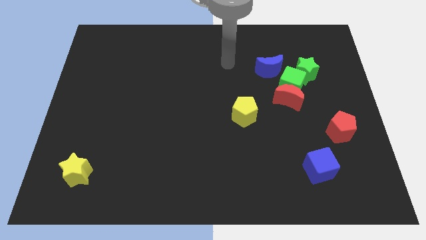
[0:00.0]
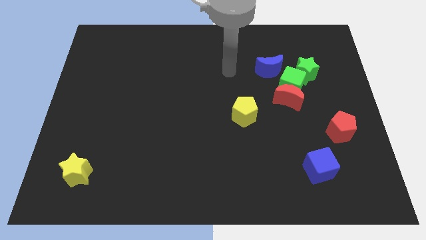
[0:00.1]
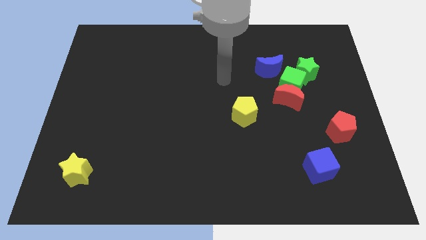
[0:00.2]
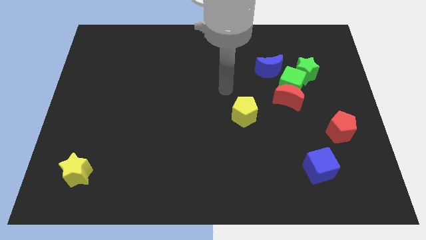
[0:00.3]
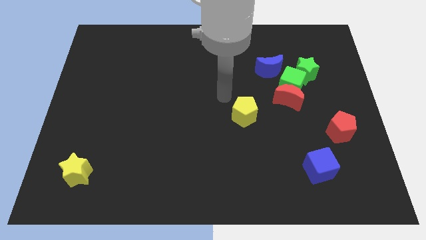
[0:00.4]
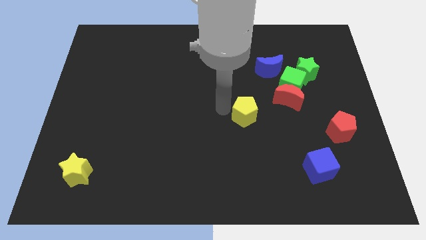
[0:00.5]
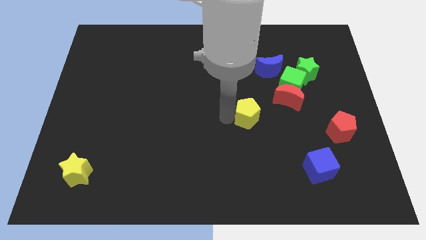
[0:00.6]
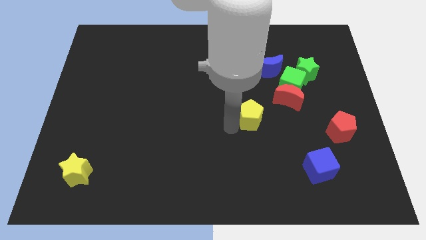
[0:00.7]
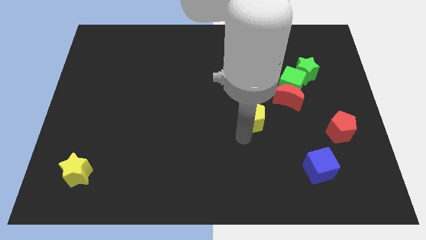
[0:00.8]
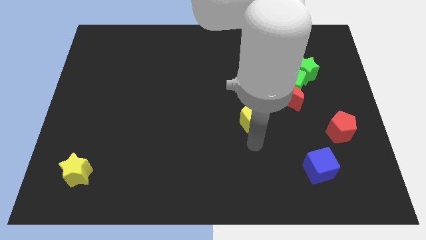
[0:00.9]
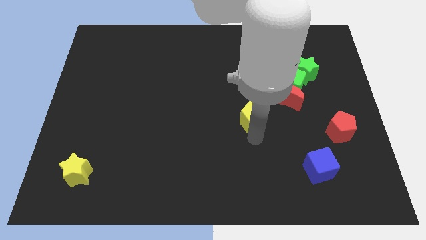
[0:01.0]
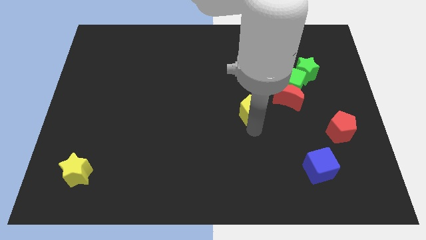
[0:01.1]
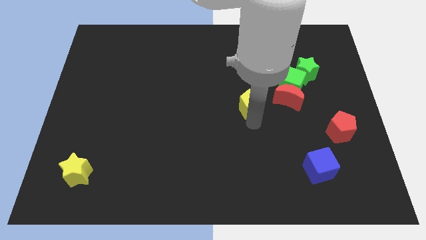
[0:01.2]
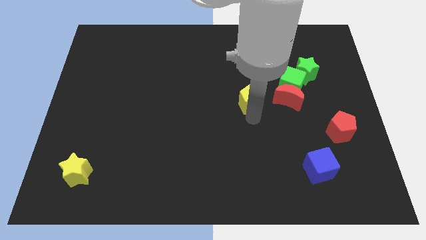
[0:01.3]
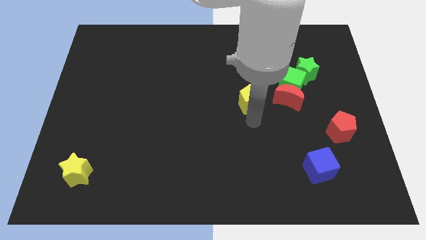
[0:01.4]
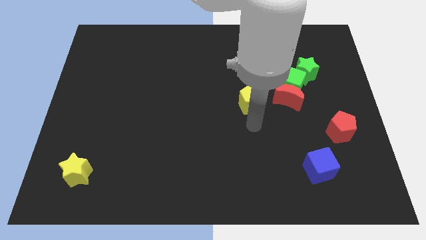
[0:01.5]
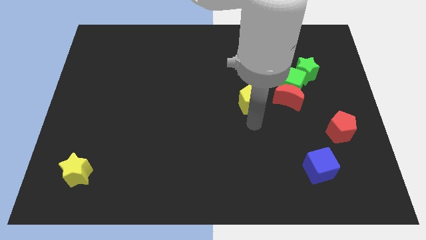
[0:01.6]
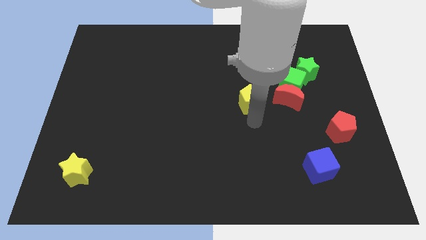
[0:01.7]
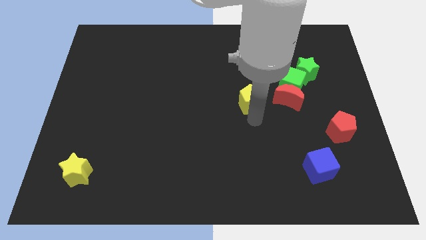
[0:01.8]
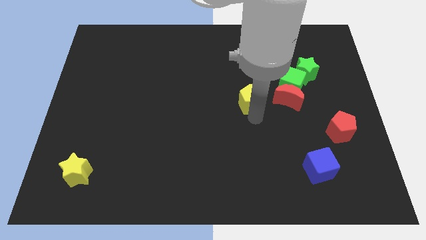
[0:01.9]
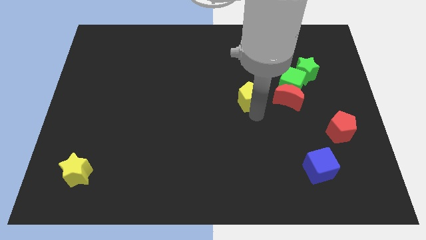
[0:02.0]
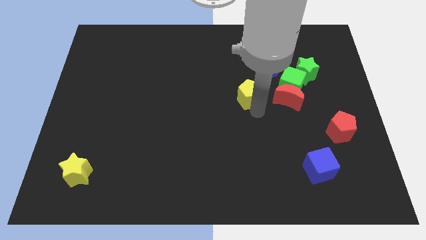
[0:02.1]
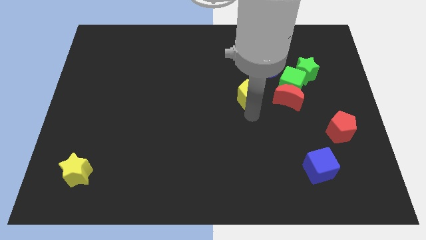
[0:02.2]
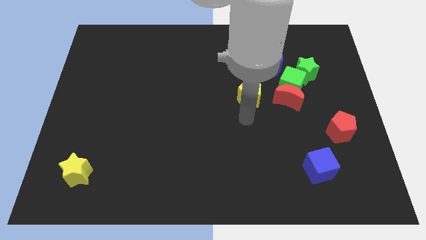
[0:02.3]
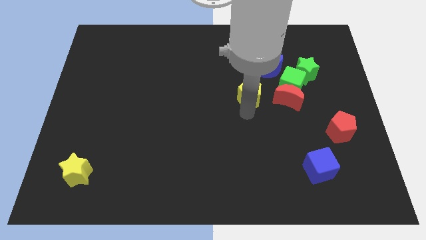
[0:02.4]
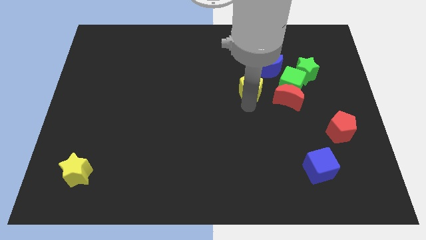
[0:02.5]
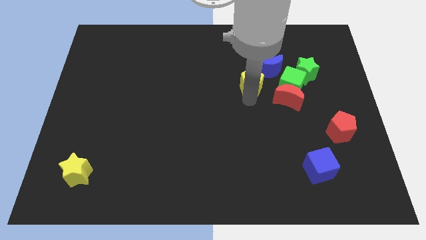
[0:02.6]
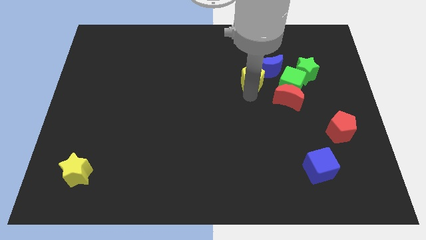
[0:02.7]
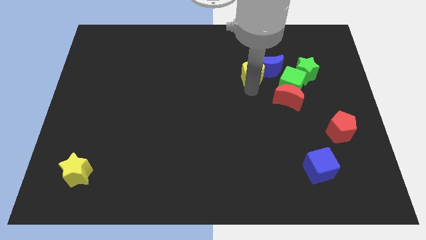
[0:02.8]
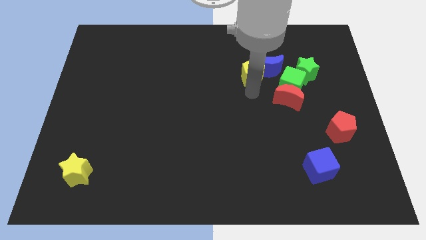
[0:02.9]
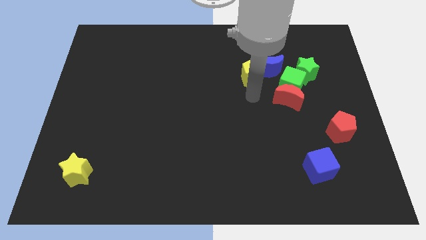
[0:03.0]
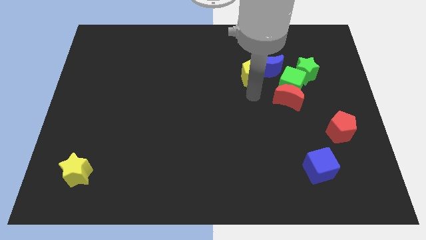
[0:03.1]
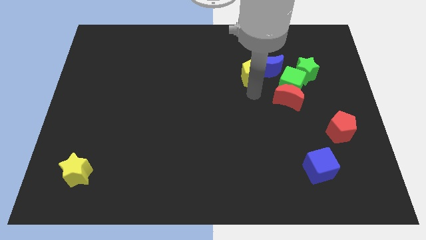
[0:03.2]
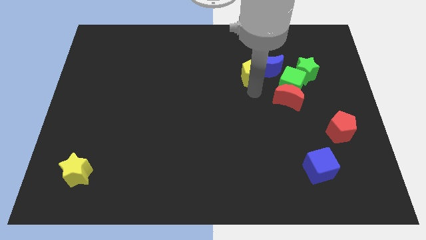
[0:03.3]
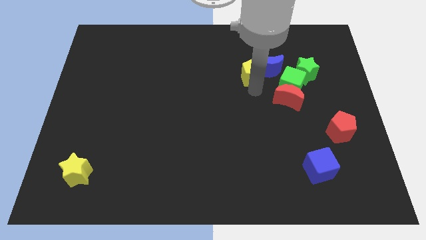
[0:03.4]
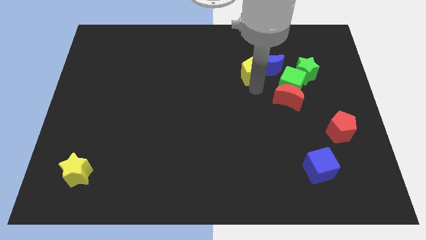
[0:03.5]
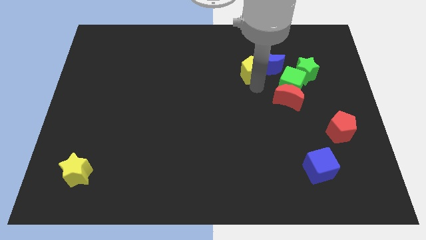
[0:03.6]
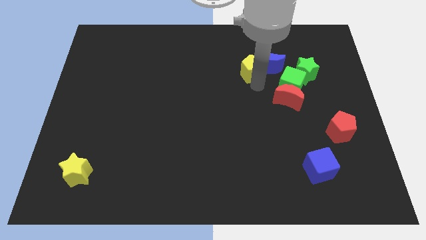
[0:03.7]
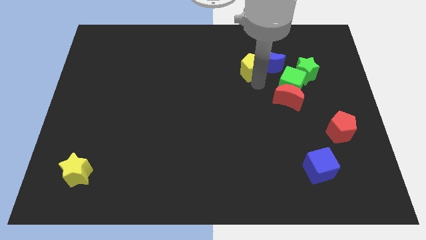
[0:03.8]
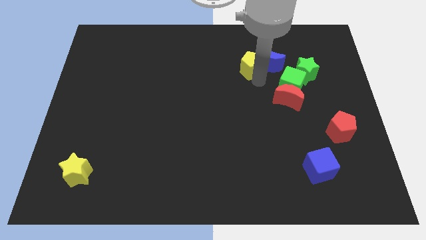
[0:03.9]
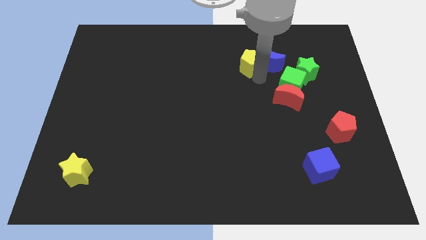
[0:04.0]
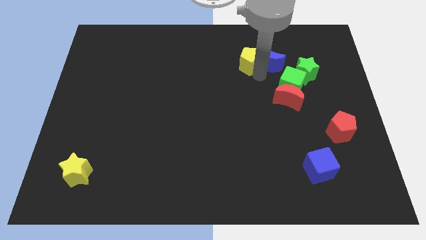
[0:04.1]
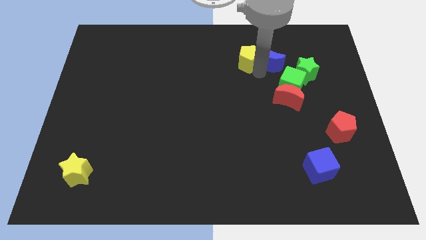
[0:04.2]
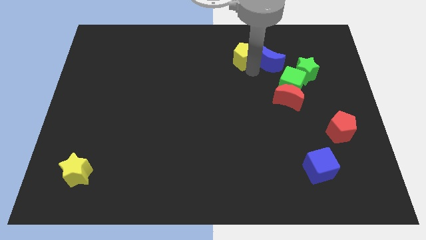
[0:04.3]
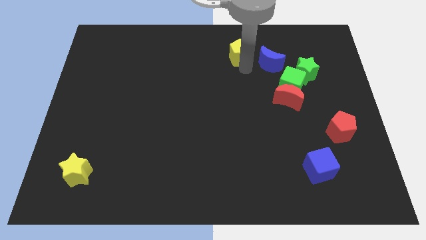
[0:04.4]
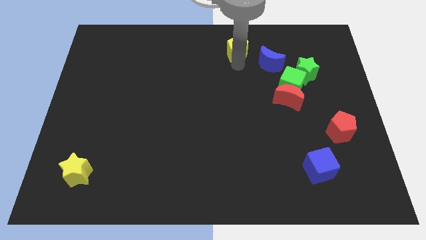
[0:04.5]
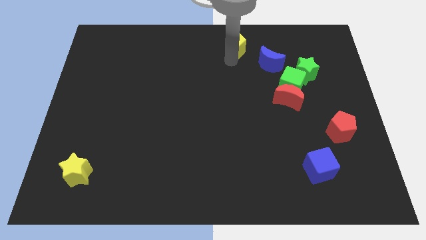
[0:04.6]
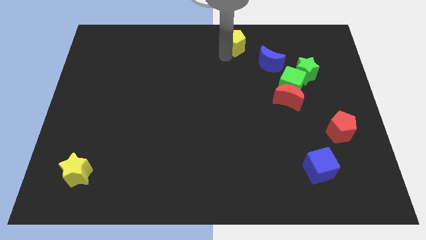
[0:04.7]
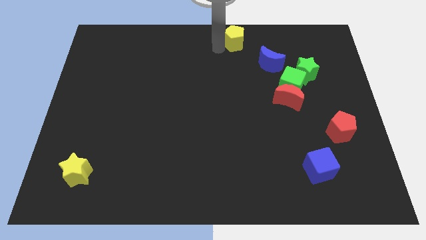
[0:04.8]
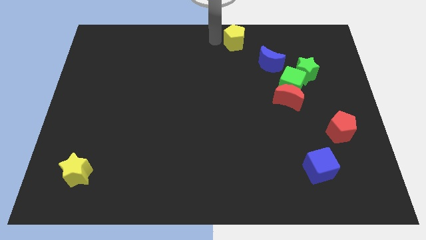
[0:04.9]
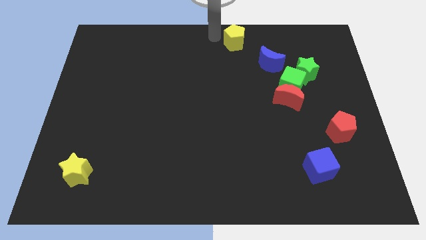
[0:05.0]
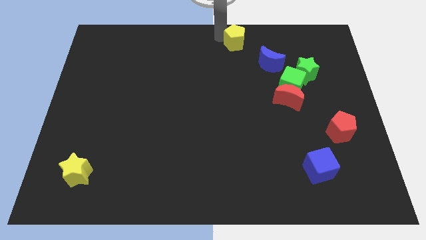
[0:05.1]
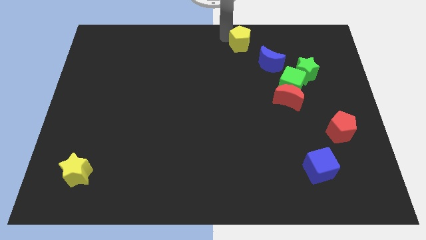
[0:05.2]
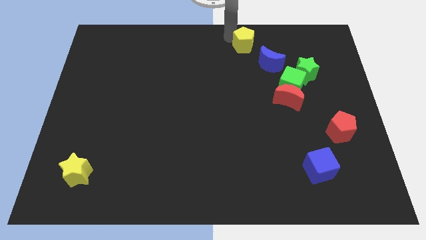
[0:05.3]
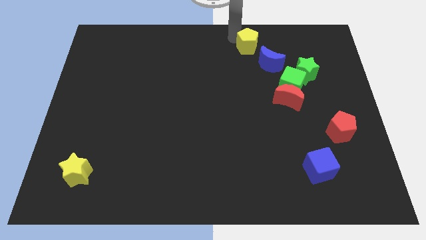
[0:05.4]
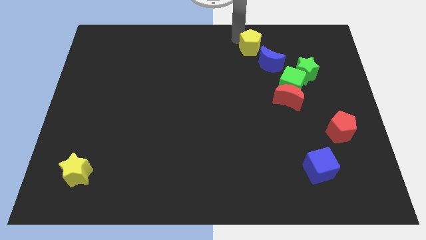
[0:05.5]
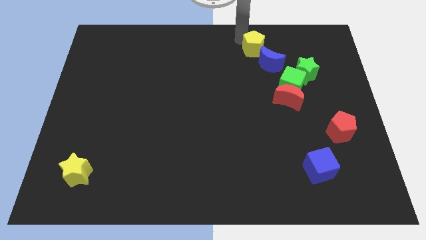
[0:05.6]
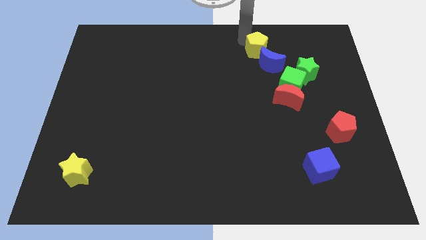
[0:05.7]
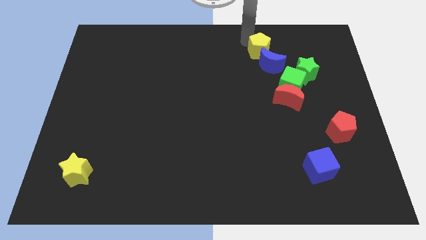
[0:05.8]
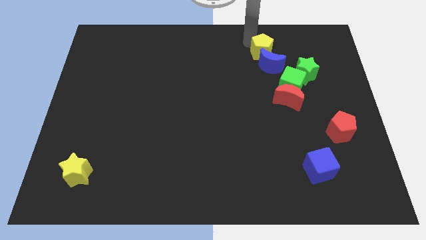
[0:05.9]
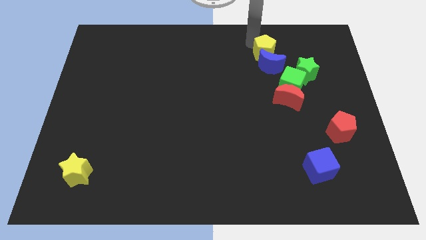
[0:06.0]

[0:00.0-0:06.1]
put the yellow pentagon to the top left side of the green star

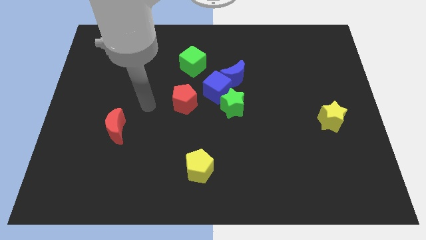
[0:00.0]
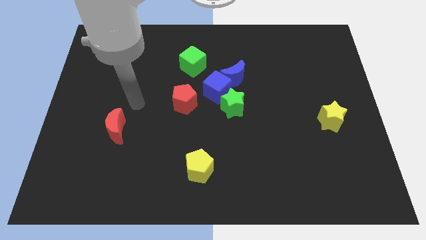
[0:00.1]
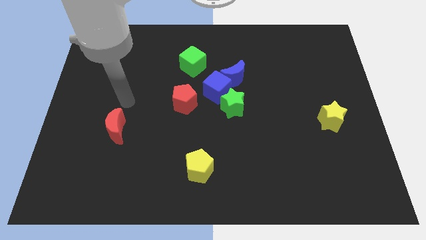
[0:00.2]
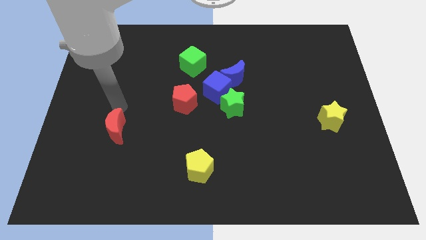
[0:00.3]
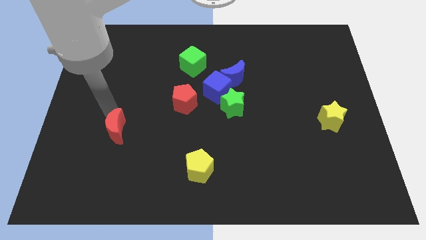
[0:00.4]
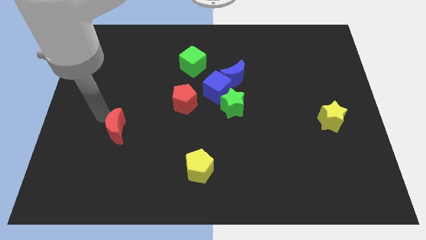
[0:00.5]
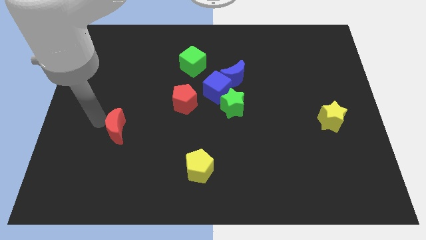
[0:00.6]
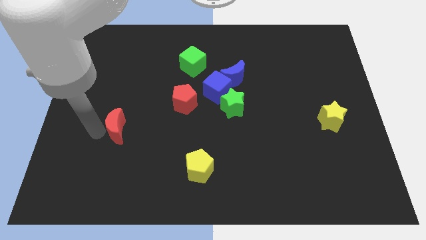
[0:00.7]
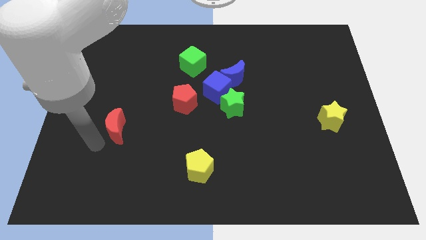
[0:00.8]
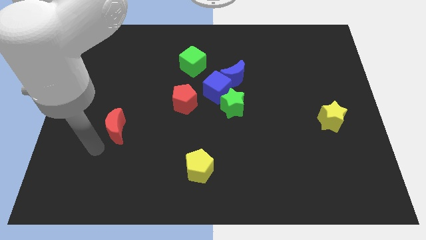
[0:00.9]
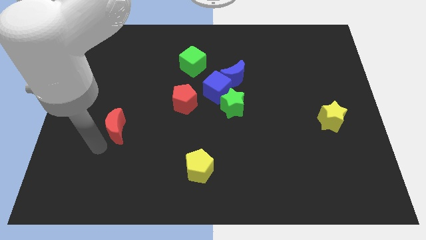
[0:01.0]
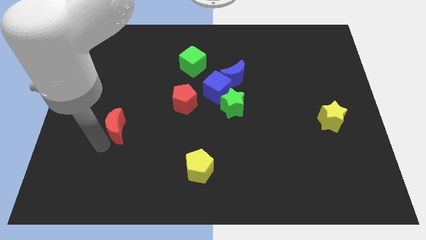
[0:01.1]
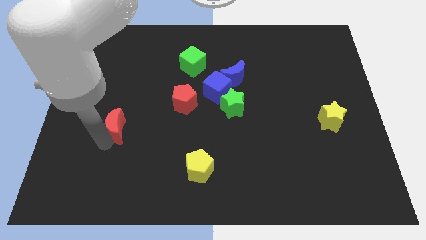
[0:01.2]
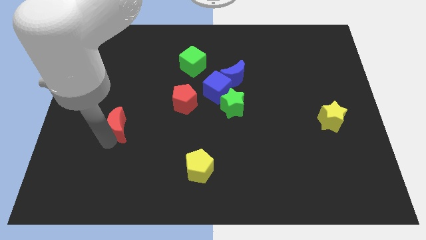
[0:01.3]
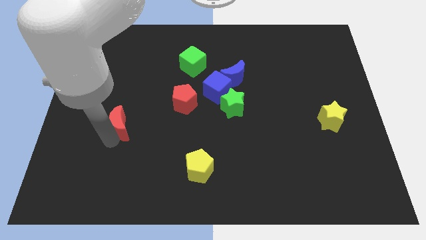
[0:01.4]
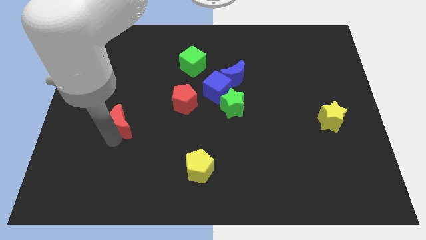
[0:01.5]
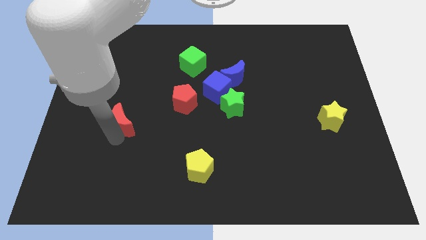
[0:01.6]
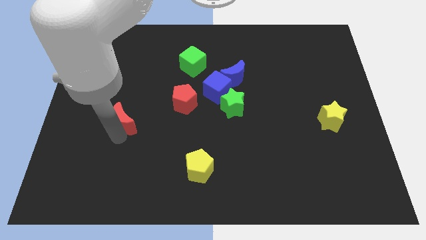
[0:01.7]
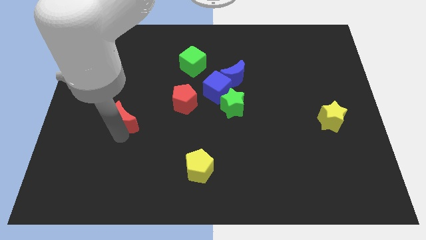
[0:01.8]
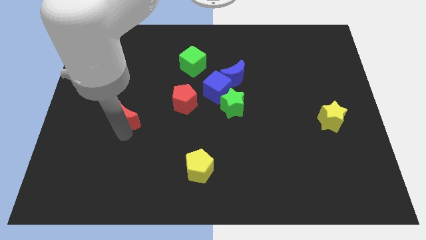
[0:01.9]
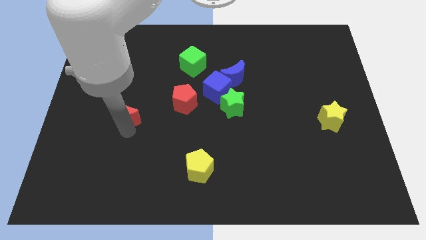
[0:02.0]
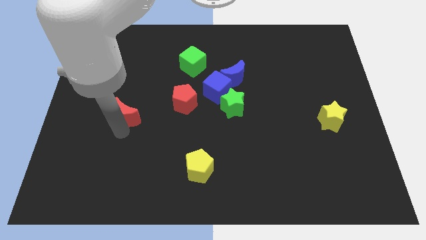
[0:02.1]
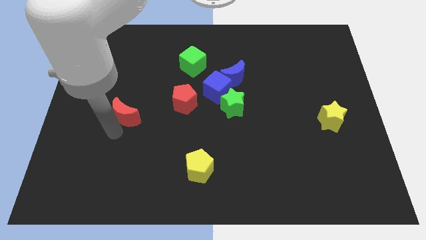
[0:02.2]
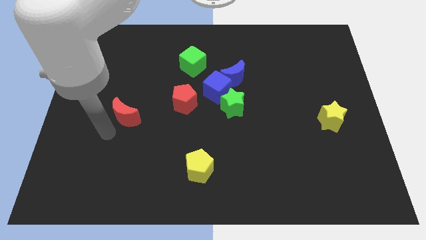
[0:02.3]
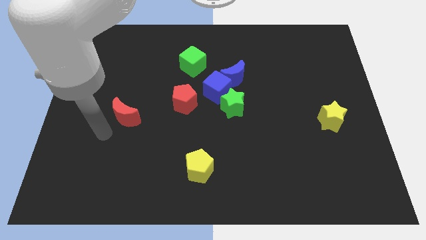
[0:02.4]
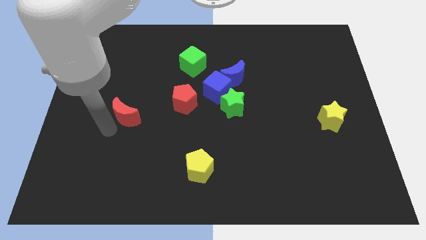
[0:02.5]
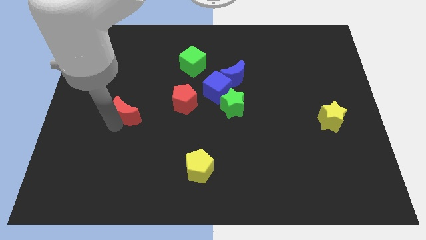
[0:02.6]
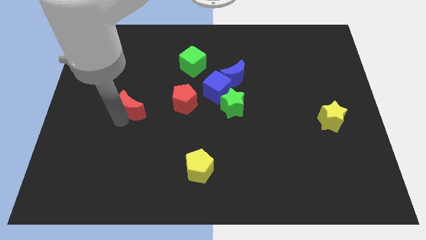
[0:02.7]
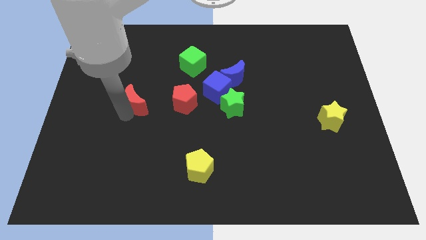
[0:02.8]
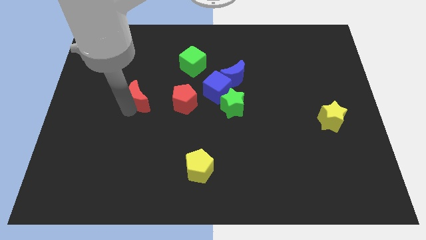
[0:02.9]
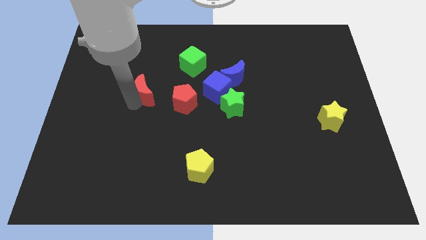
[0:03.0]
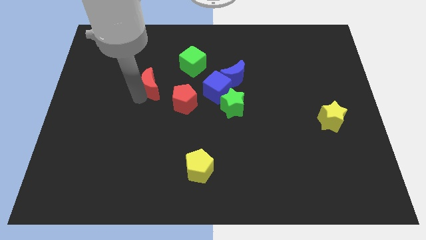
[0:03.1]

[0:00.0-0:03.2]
push the red moon diagonally down and to the left of the green cube
